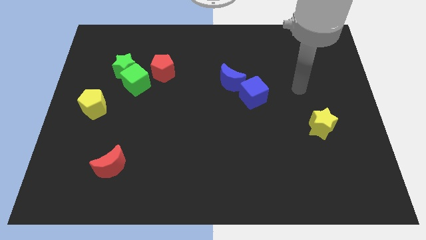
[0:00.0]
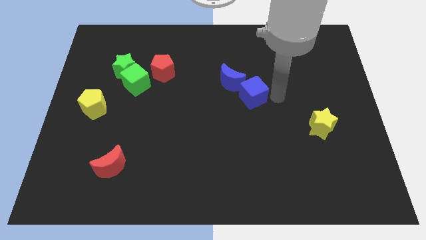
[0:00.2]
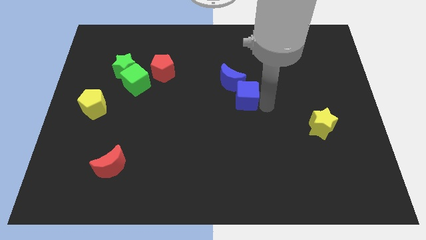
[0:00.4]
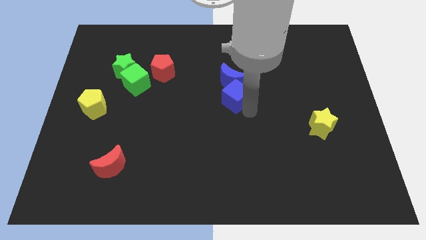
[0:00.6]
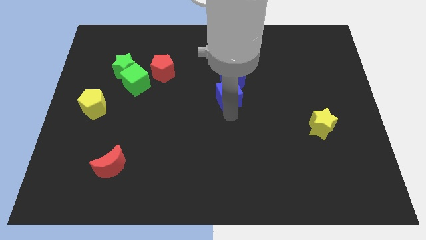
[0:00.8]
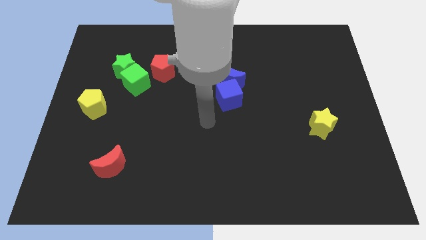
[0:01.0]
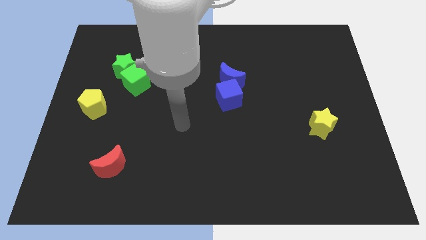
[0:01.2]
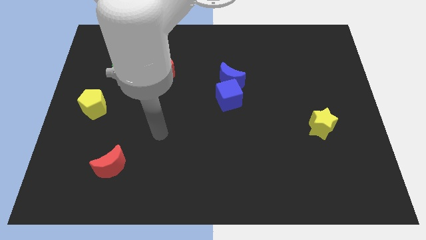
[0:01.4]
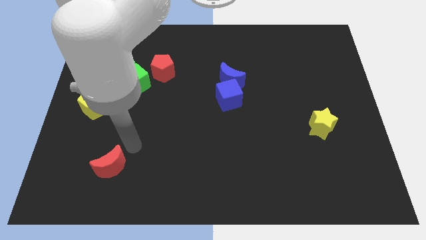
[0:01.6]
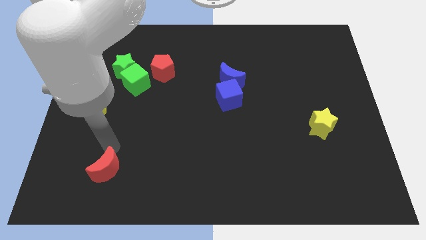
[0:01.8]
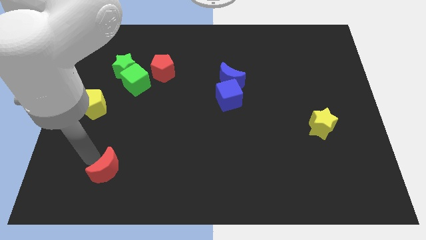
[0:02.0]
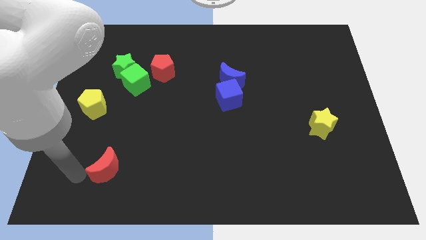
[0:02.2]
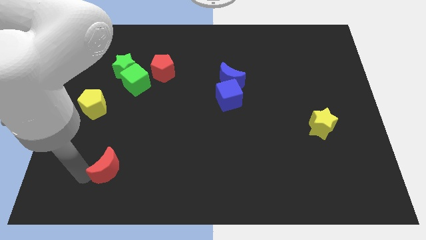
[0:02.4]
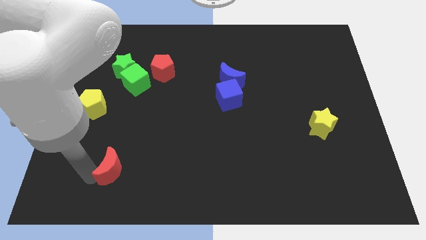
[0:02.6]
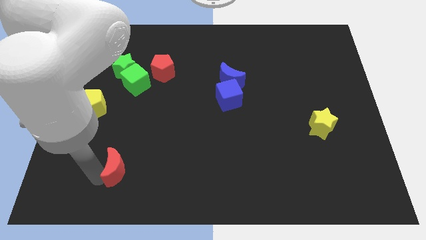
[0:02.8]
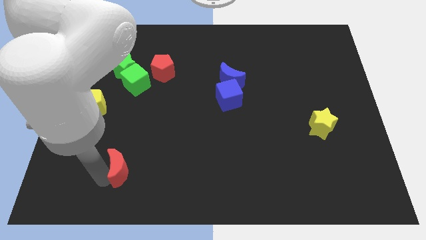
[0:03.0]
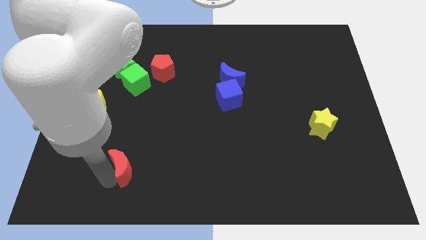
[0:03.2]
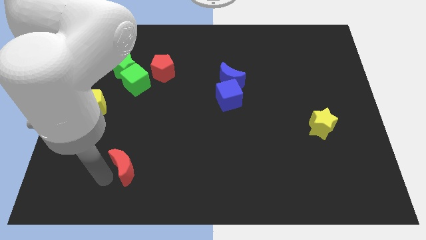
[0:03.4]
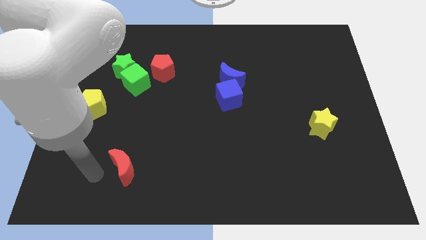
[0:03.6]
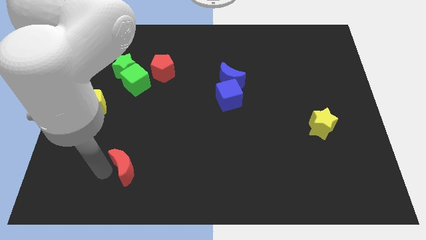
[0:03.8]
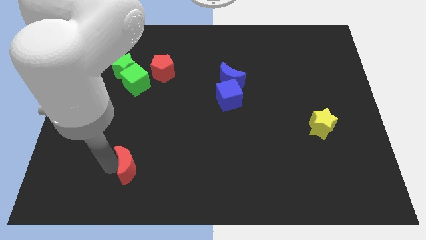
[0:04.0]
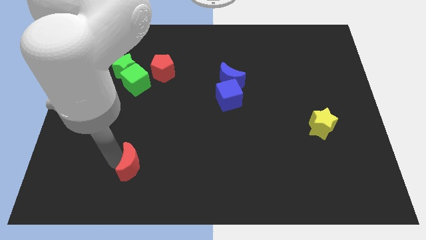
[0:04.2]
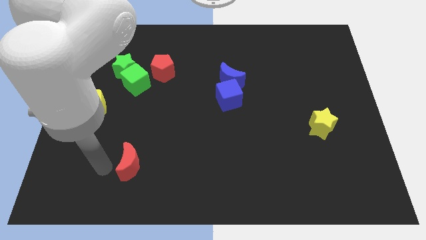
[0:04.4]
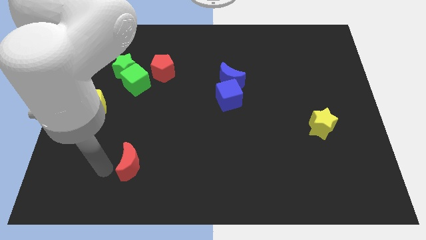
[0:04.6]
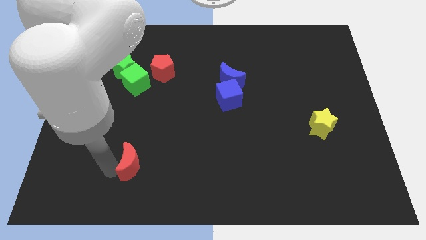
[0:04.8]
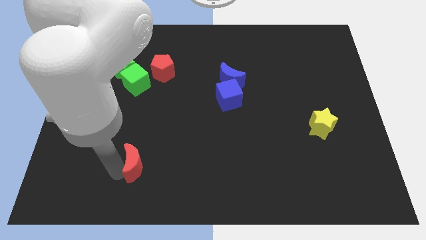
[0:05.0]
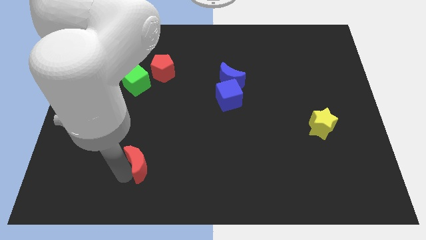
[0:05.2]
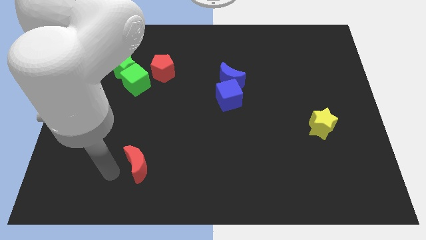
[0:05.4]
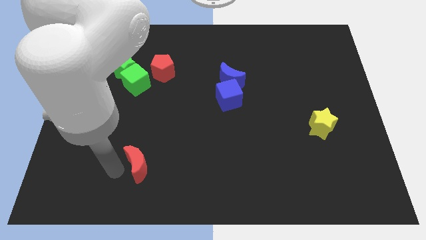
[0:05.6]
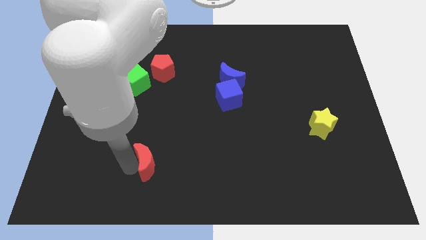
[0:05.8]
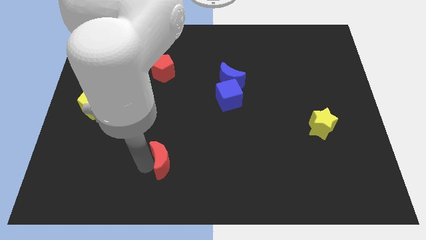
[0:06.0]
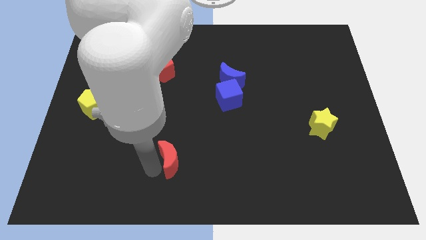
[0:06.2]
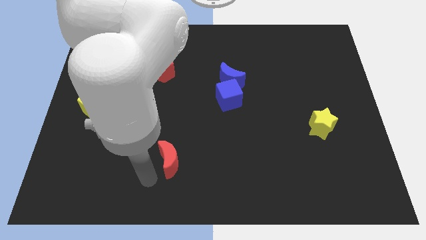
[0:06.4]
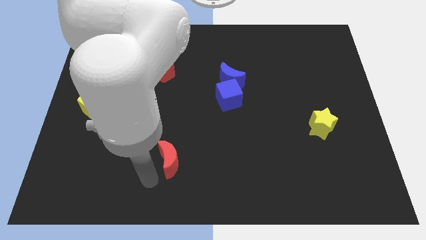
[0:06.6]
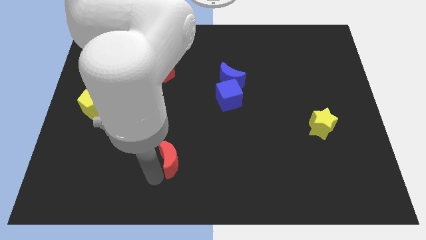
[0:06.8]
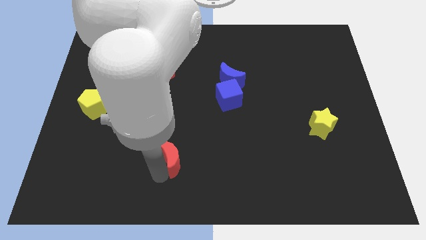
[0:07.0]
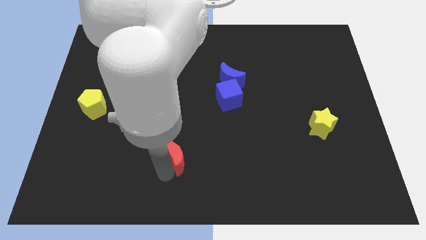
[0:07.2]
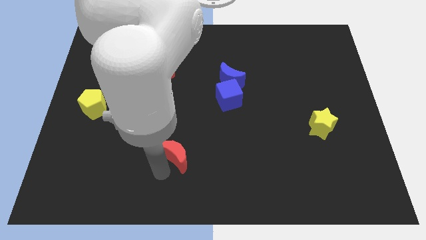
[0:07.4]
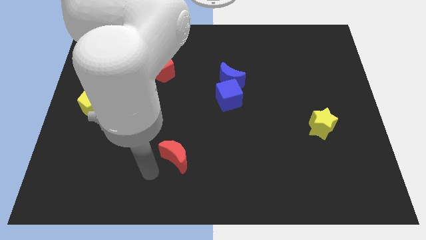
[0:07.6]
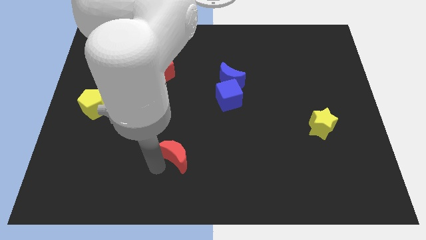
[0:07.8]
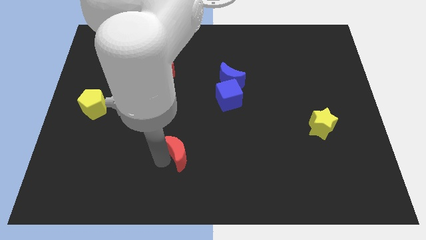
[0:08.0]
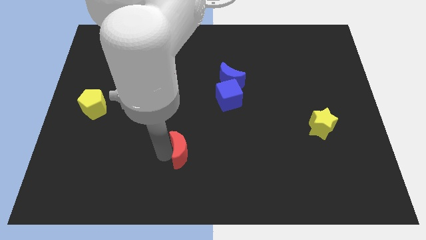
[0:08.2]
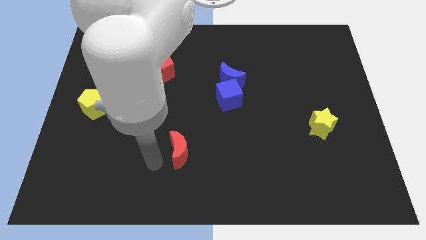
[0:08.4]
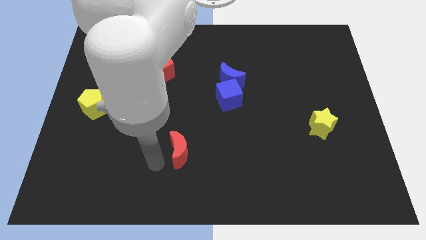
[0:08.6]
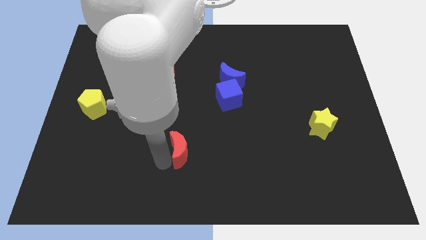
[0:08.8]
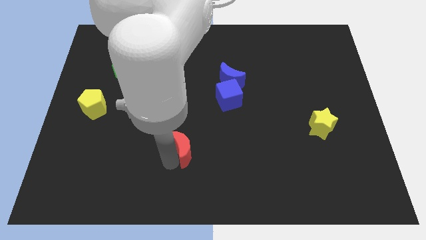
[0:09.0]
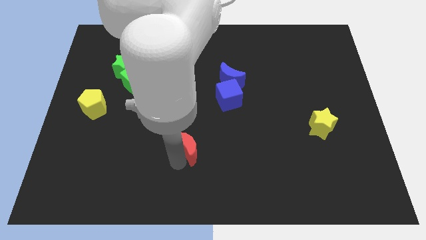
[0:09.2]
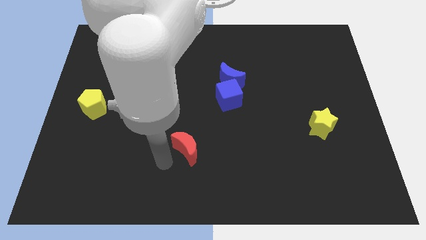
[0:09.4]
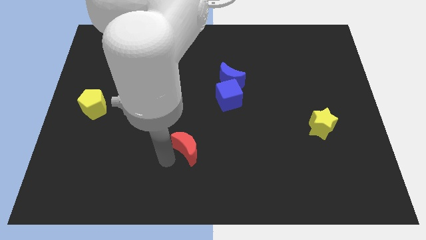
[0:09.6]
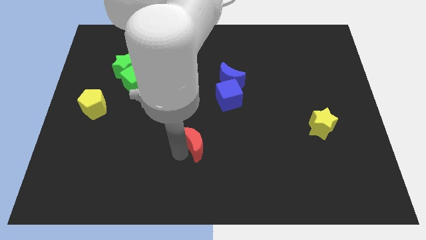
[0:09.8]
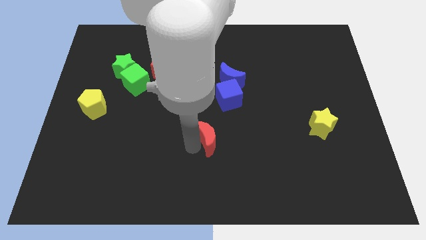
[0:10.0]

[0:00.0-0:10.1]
put the red moon below the blue cube

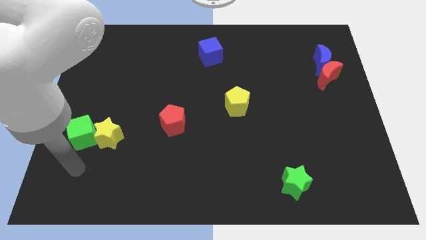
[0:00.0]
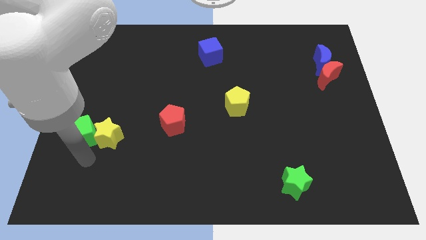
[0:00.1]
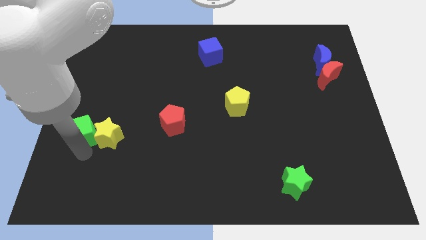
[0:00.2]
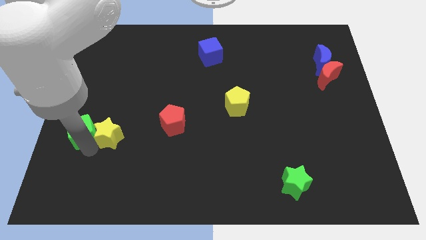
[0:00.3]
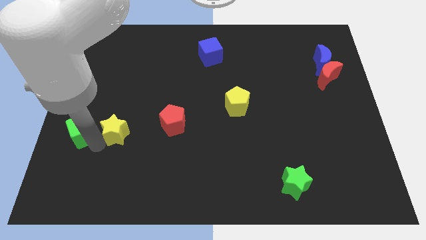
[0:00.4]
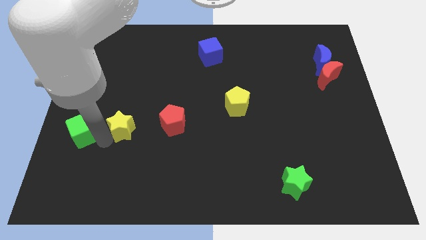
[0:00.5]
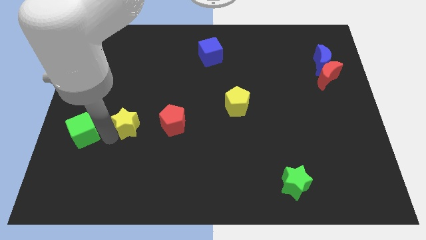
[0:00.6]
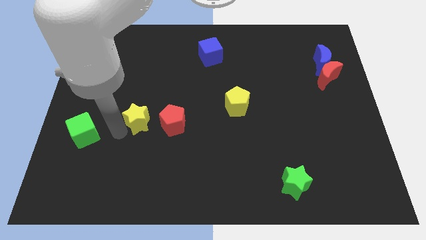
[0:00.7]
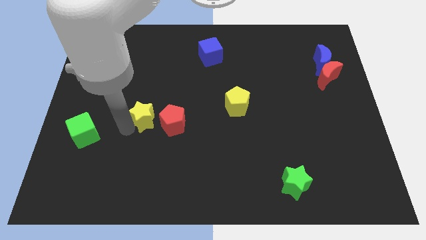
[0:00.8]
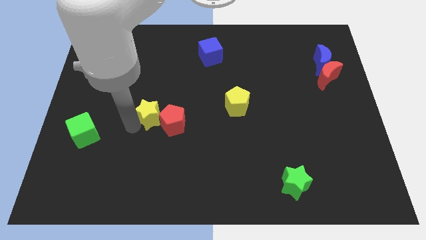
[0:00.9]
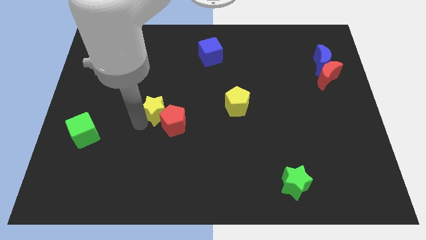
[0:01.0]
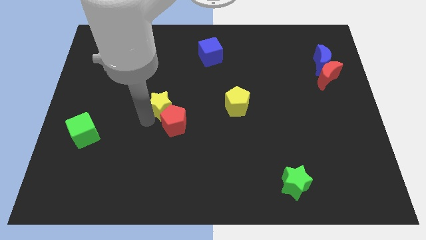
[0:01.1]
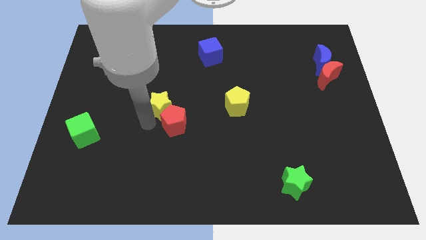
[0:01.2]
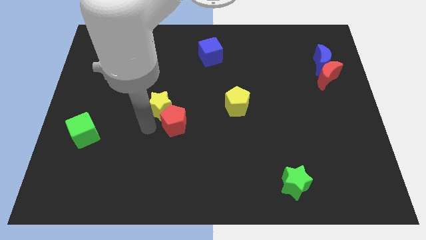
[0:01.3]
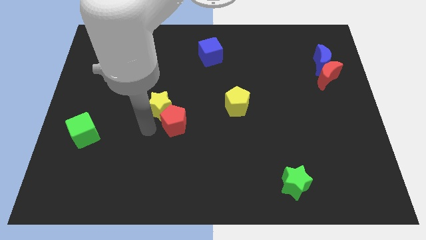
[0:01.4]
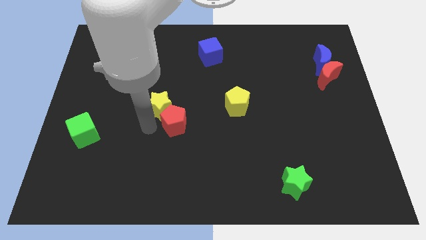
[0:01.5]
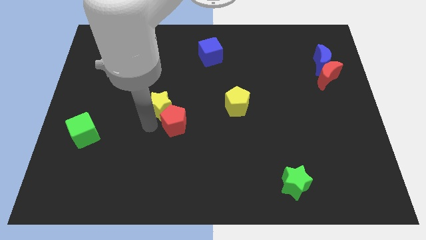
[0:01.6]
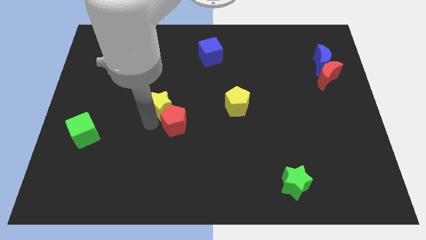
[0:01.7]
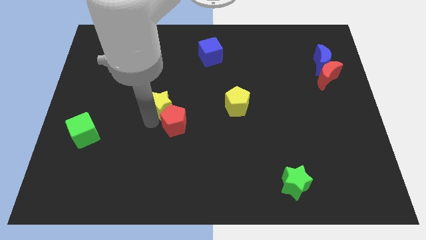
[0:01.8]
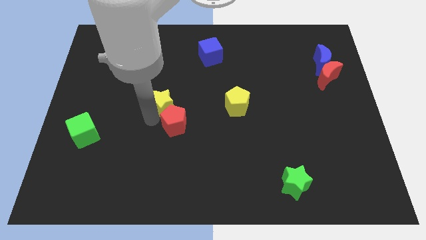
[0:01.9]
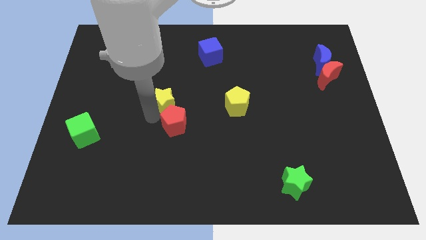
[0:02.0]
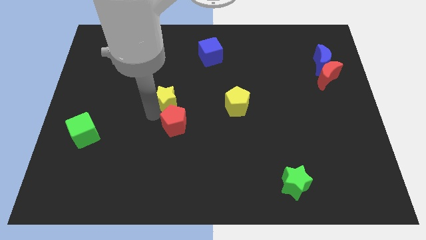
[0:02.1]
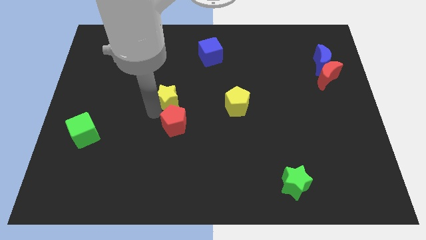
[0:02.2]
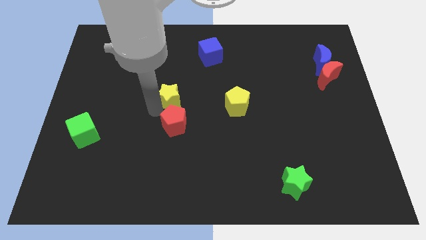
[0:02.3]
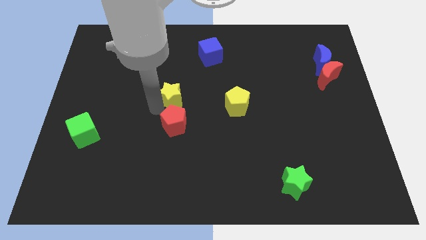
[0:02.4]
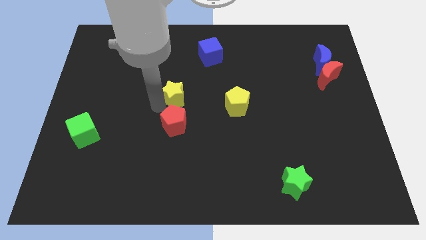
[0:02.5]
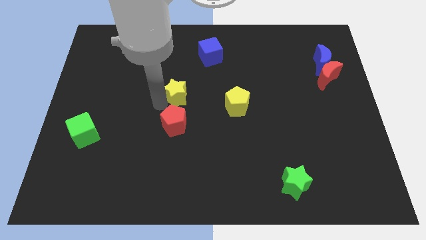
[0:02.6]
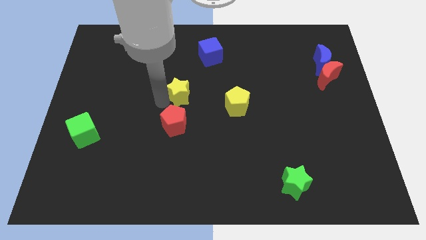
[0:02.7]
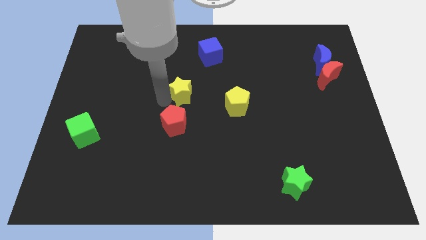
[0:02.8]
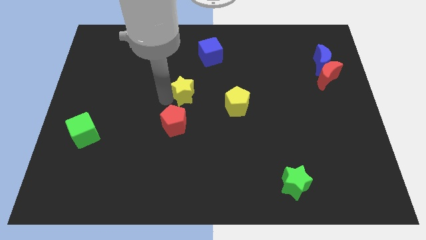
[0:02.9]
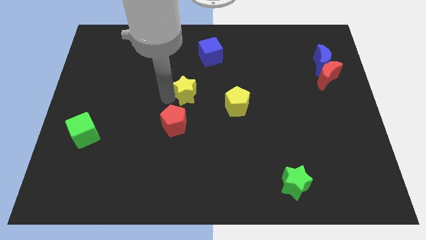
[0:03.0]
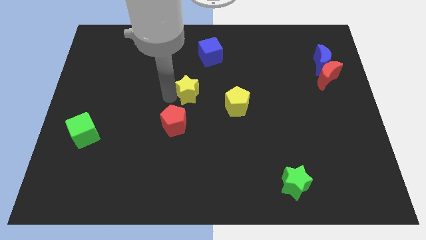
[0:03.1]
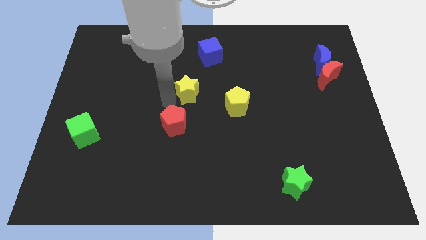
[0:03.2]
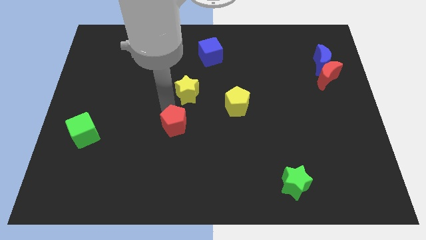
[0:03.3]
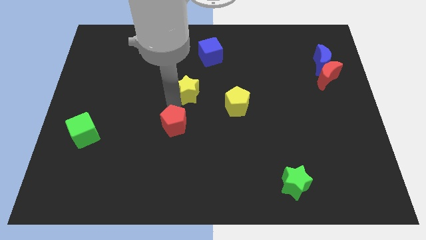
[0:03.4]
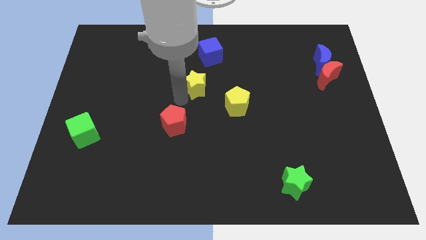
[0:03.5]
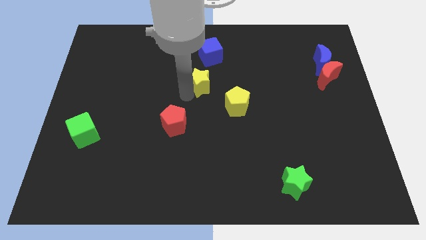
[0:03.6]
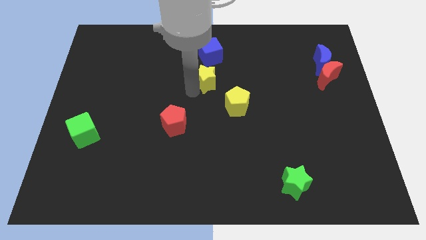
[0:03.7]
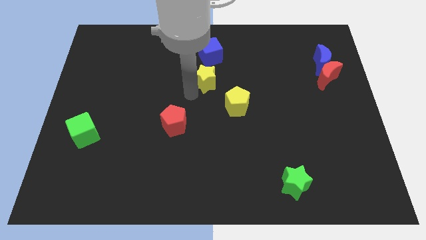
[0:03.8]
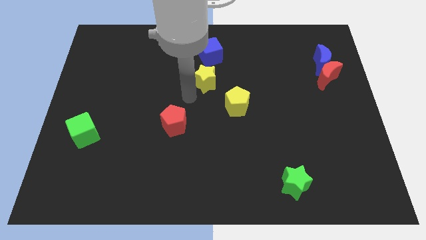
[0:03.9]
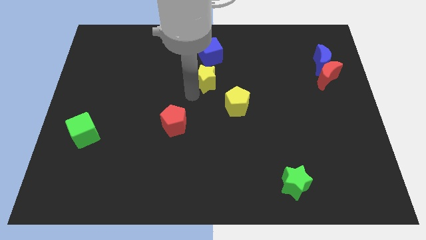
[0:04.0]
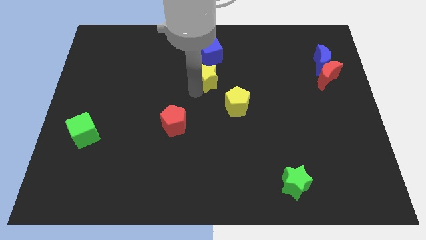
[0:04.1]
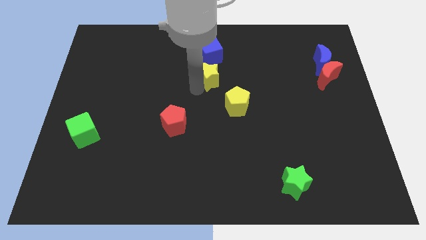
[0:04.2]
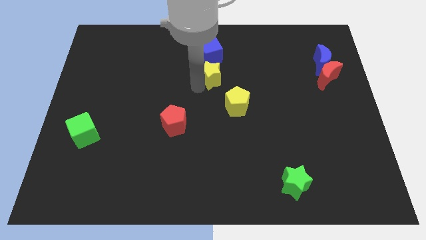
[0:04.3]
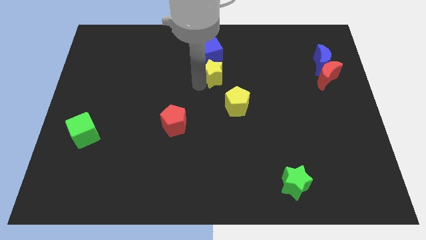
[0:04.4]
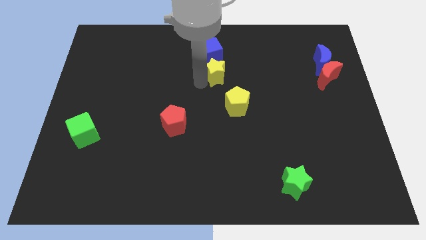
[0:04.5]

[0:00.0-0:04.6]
put the yellow star above the yellow pentagon
